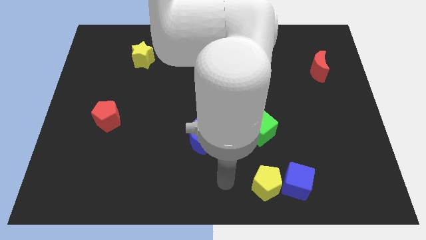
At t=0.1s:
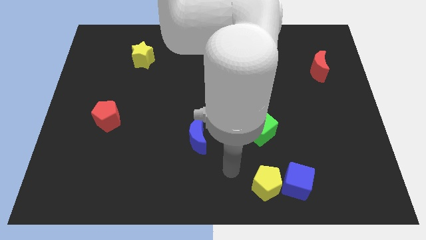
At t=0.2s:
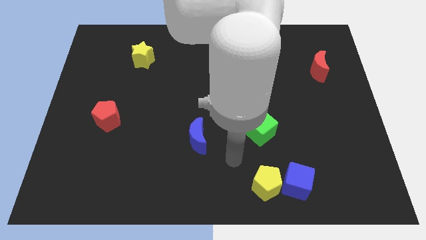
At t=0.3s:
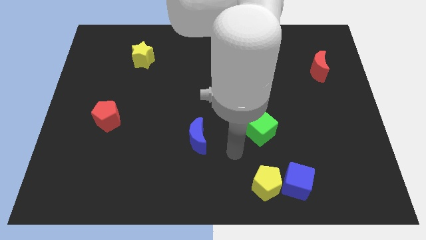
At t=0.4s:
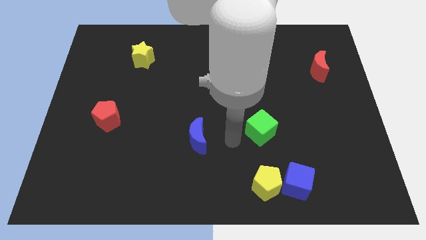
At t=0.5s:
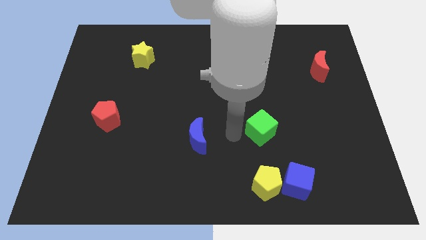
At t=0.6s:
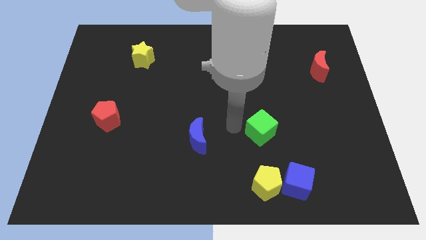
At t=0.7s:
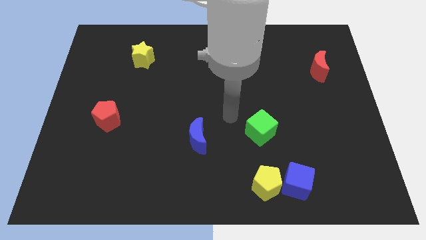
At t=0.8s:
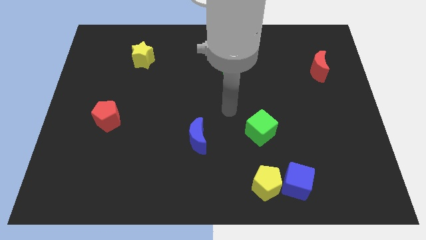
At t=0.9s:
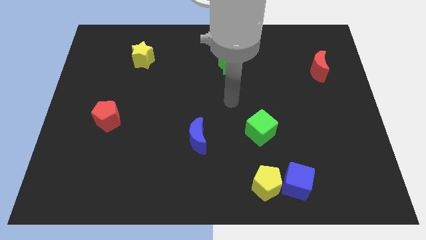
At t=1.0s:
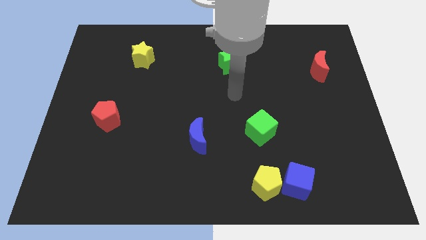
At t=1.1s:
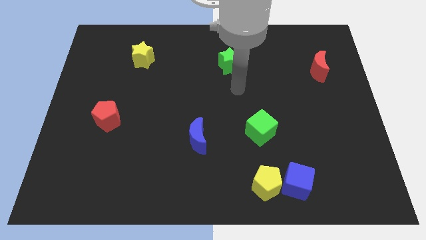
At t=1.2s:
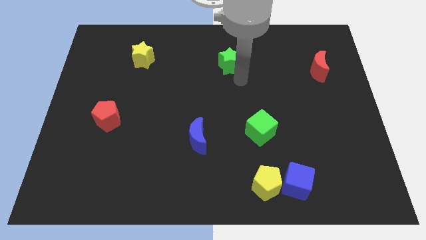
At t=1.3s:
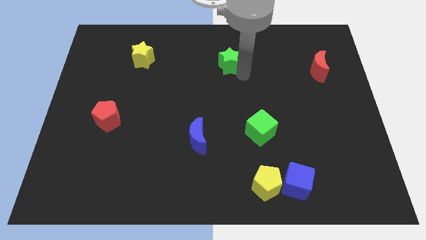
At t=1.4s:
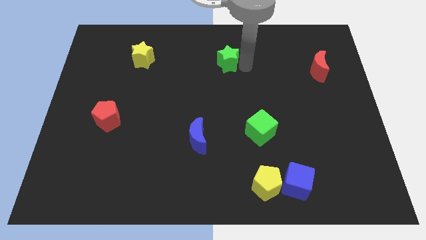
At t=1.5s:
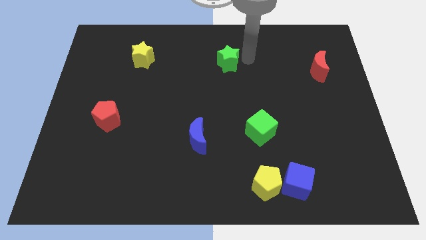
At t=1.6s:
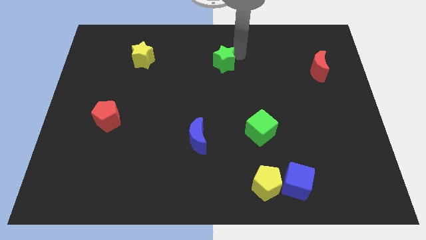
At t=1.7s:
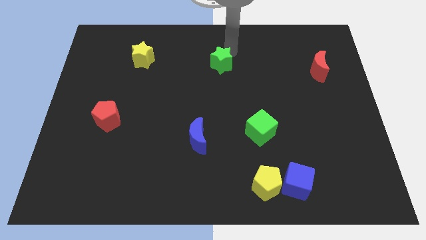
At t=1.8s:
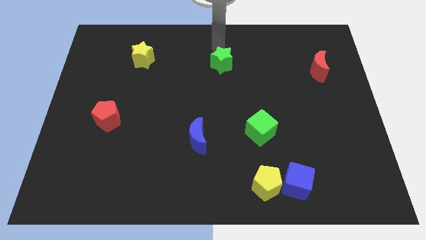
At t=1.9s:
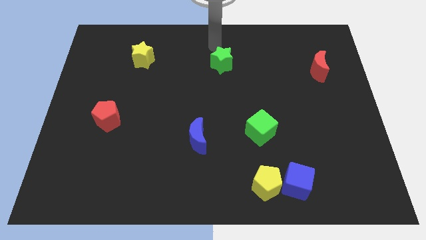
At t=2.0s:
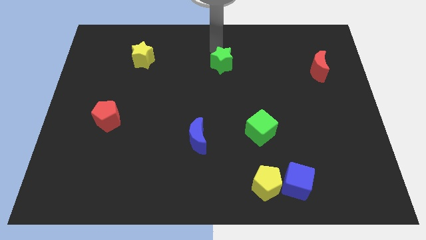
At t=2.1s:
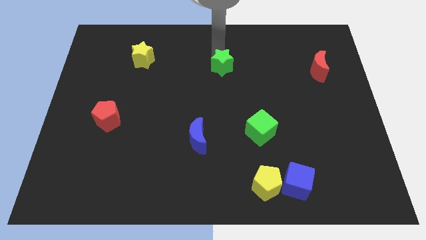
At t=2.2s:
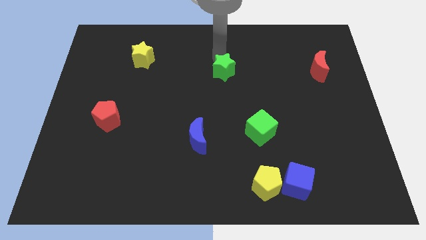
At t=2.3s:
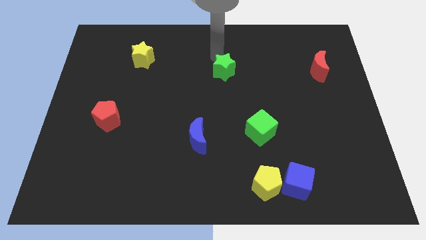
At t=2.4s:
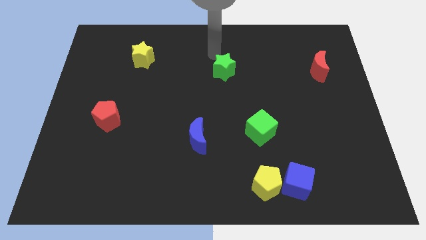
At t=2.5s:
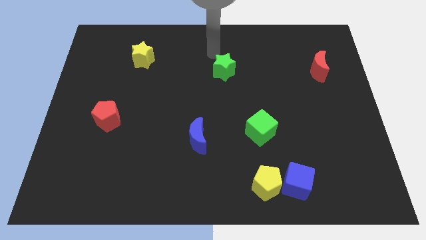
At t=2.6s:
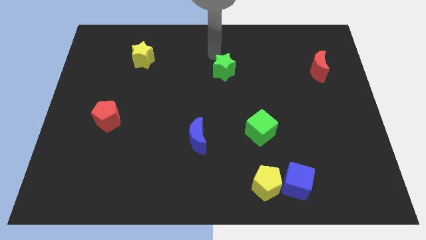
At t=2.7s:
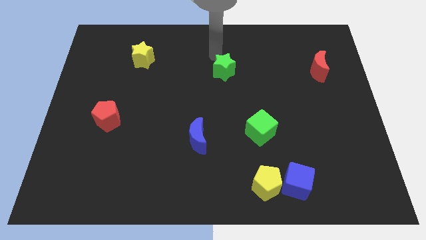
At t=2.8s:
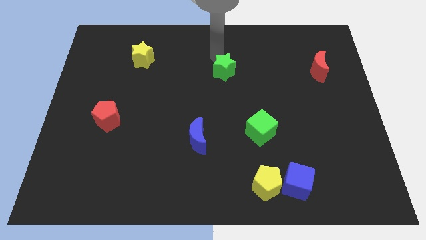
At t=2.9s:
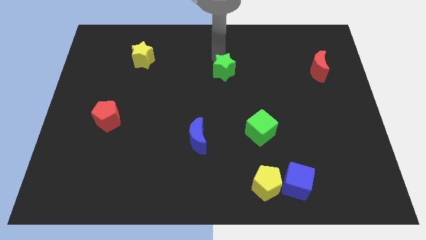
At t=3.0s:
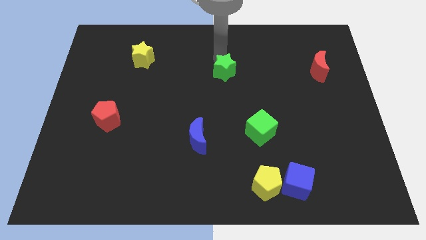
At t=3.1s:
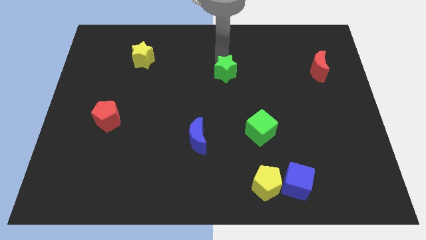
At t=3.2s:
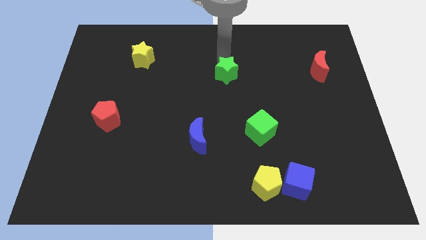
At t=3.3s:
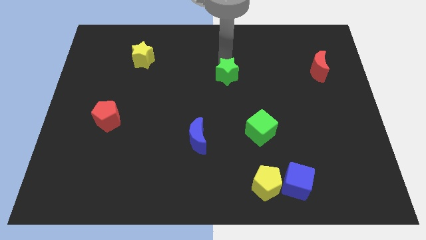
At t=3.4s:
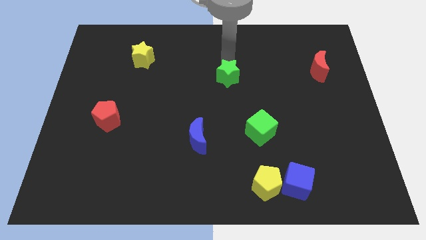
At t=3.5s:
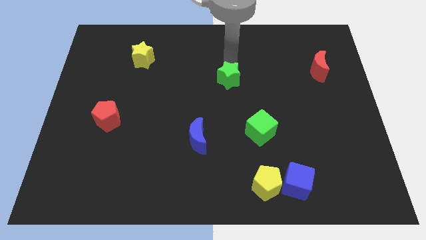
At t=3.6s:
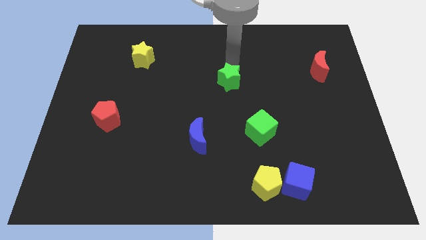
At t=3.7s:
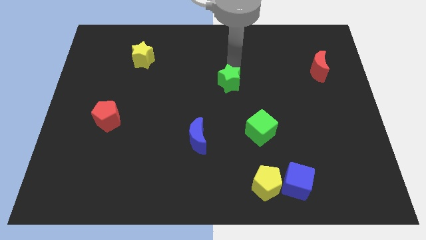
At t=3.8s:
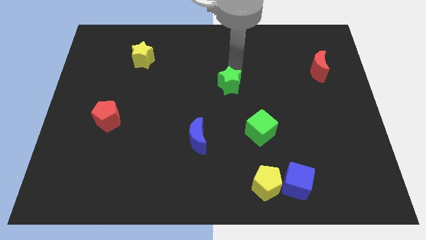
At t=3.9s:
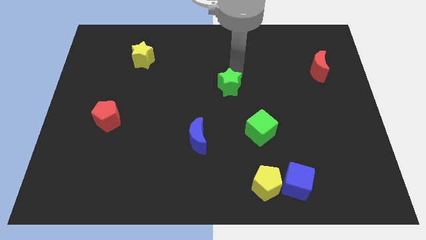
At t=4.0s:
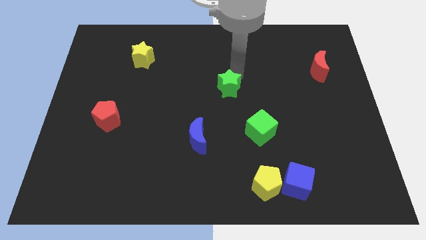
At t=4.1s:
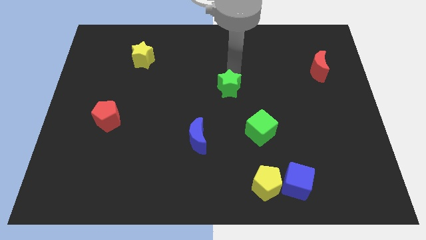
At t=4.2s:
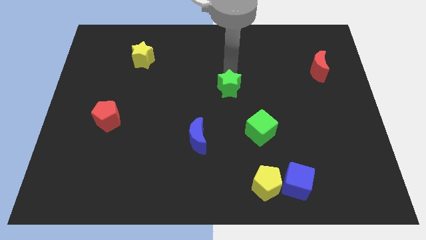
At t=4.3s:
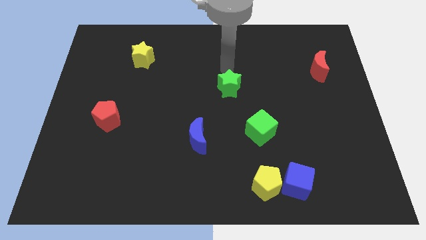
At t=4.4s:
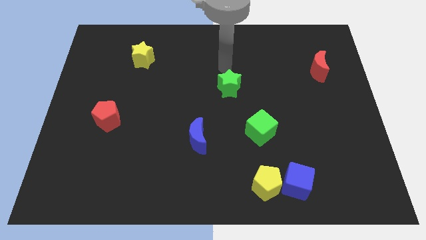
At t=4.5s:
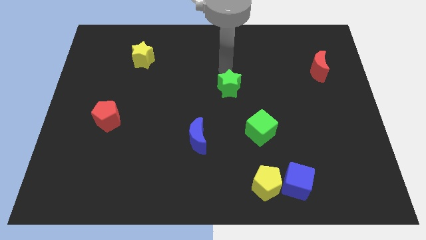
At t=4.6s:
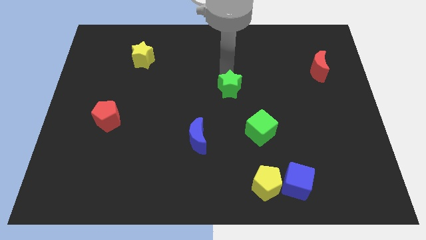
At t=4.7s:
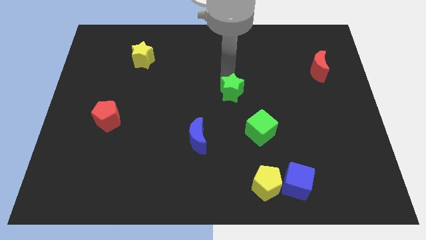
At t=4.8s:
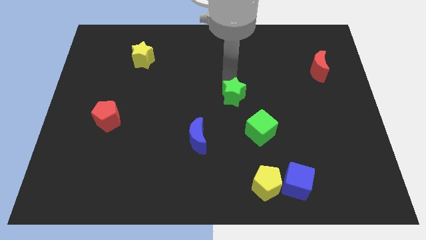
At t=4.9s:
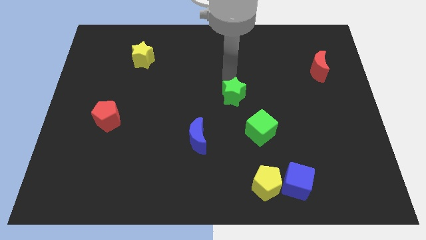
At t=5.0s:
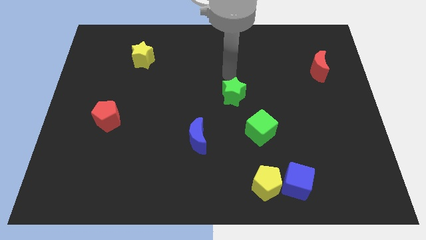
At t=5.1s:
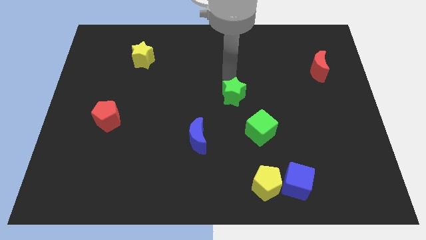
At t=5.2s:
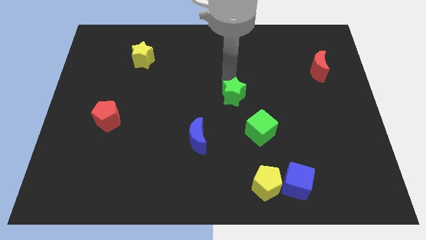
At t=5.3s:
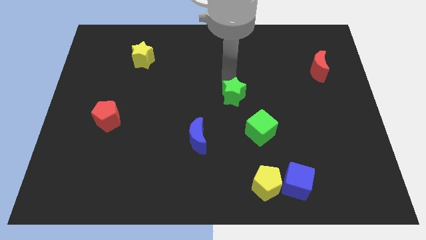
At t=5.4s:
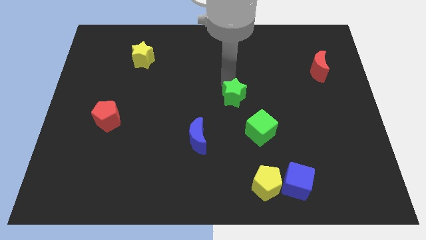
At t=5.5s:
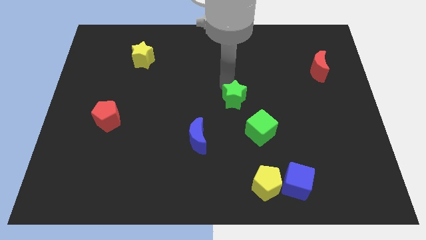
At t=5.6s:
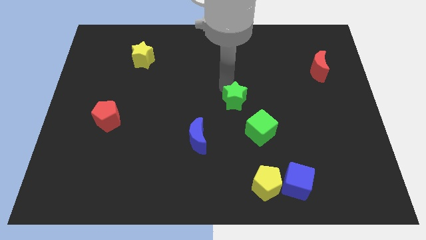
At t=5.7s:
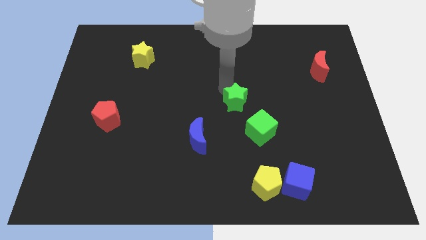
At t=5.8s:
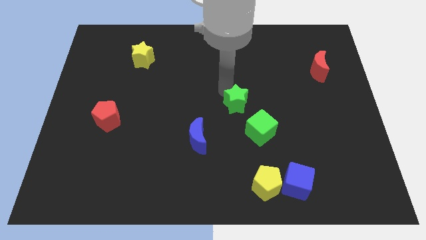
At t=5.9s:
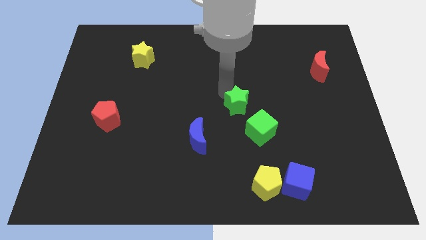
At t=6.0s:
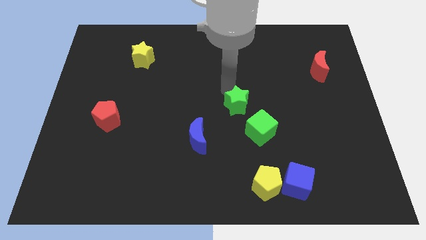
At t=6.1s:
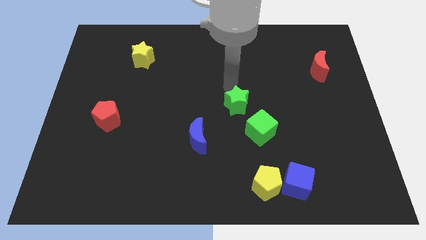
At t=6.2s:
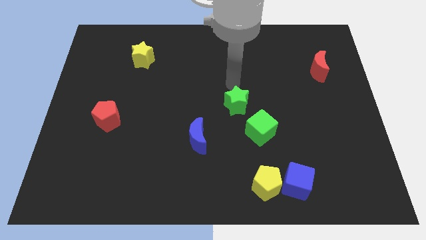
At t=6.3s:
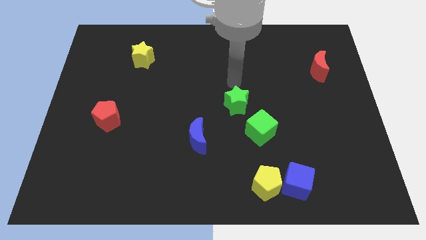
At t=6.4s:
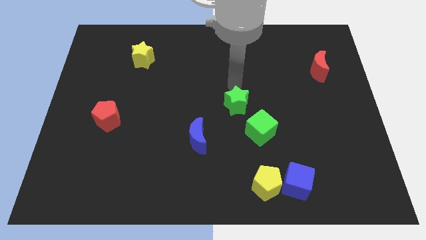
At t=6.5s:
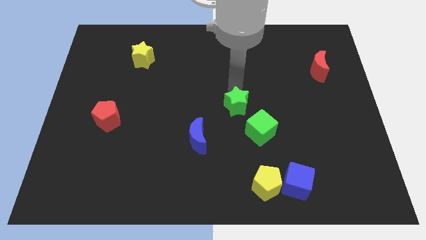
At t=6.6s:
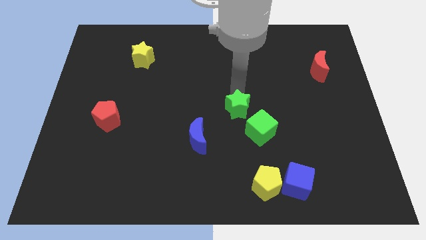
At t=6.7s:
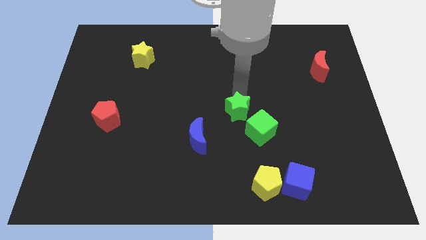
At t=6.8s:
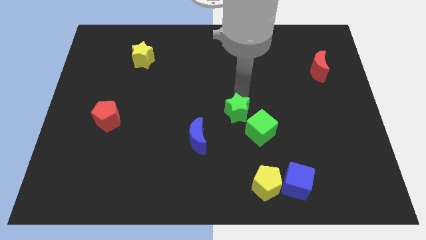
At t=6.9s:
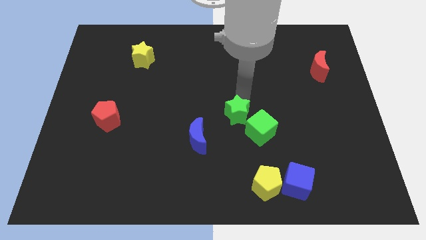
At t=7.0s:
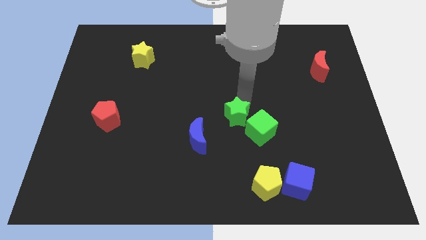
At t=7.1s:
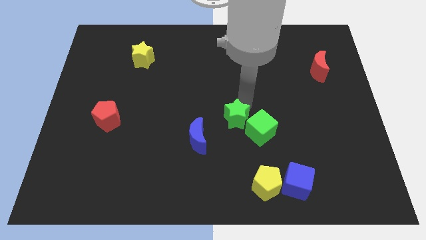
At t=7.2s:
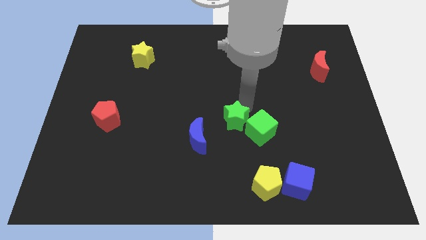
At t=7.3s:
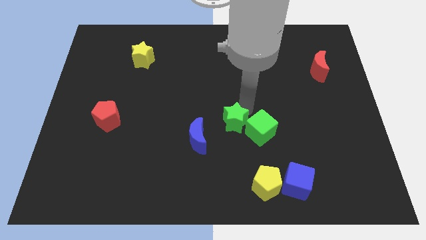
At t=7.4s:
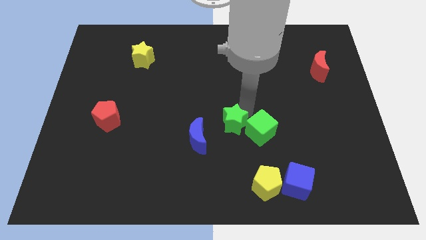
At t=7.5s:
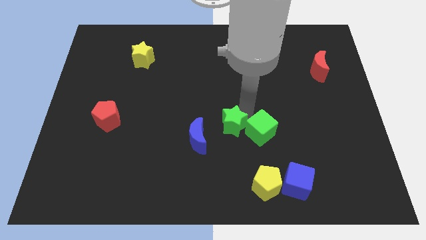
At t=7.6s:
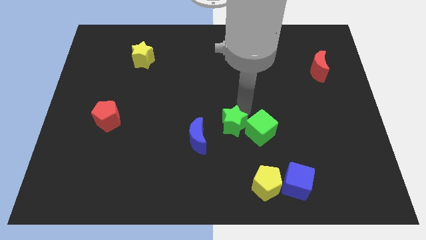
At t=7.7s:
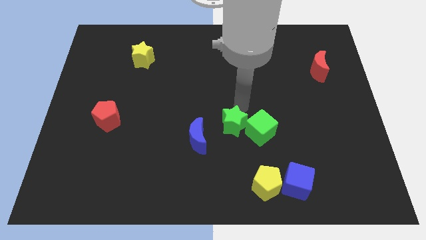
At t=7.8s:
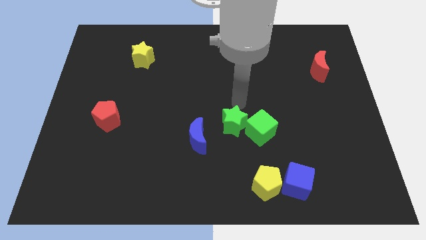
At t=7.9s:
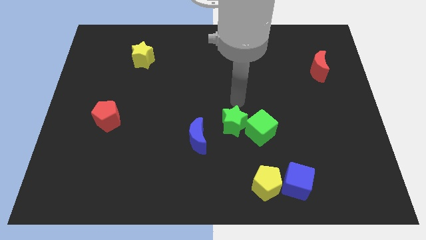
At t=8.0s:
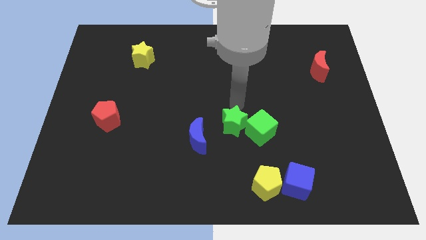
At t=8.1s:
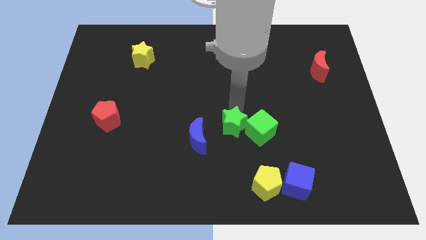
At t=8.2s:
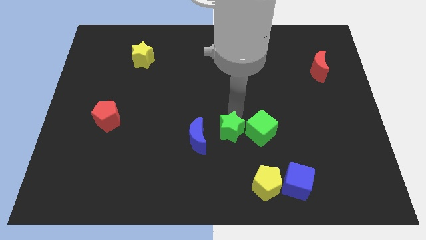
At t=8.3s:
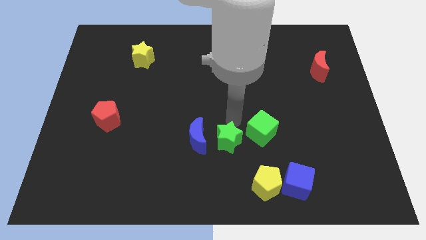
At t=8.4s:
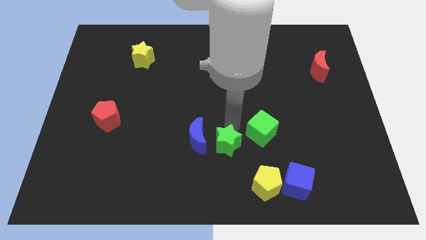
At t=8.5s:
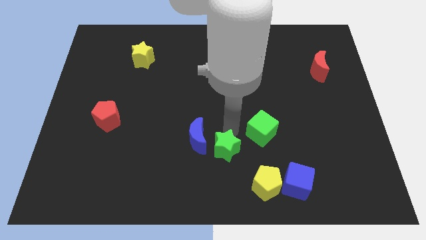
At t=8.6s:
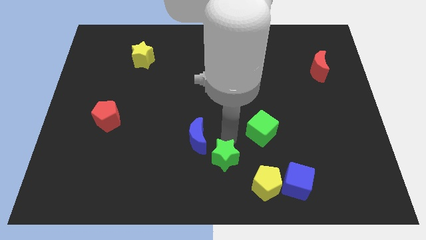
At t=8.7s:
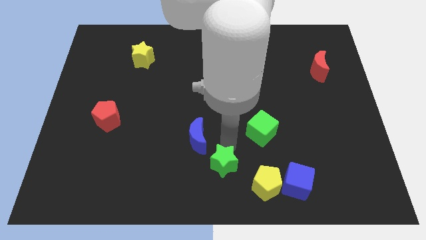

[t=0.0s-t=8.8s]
put the green star to the left side of the yellow pentagon
